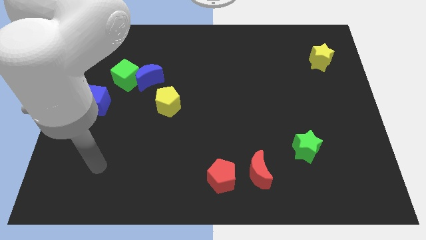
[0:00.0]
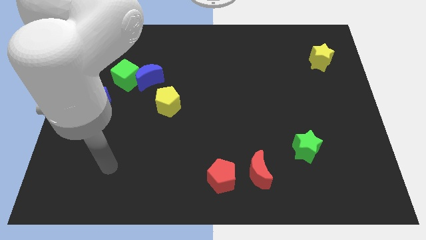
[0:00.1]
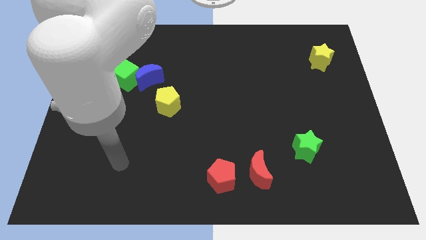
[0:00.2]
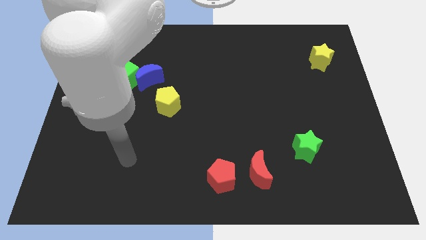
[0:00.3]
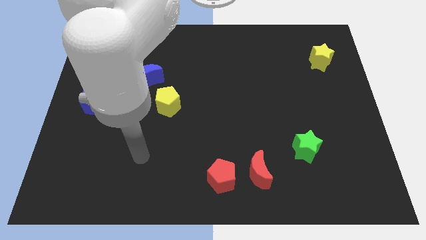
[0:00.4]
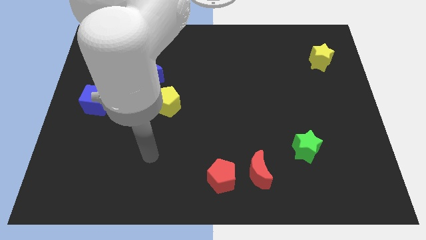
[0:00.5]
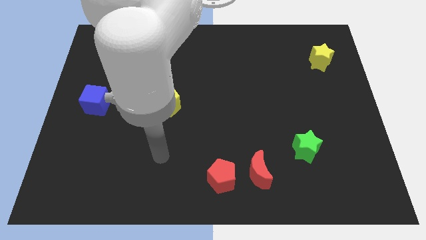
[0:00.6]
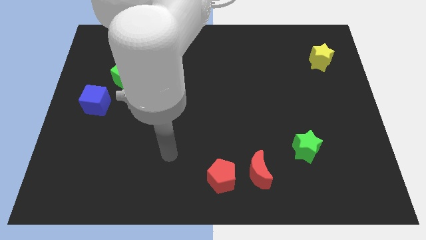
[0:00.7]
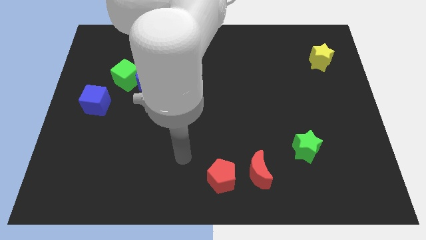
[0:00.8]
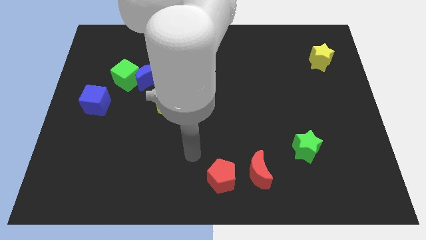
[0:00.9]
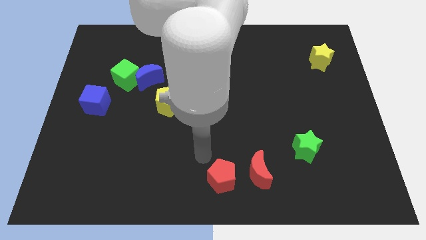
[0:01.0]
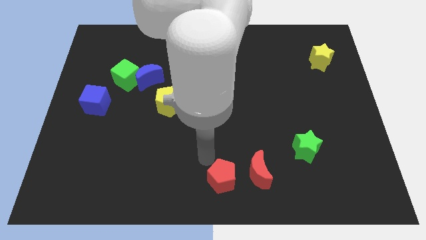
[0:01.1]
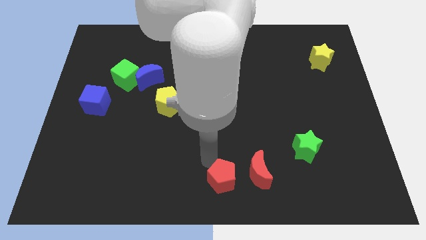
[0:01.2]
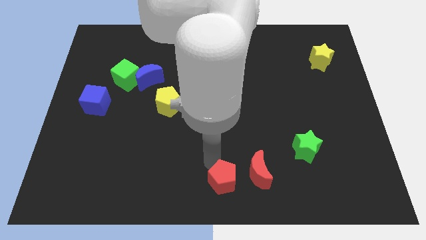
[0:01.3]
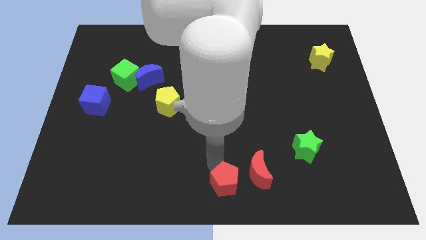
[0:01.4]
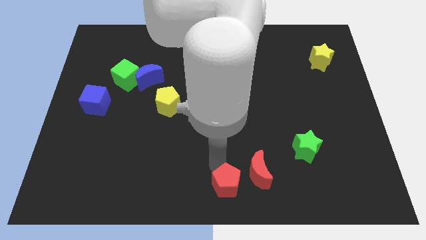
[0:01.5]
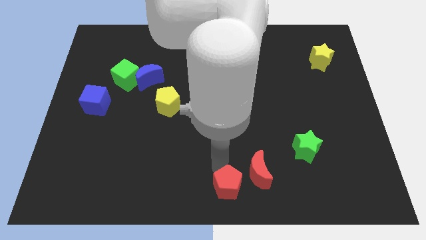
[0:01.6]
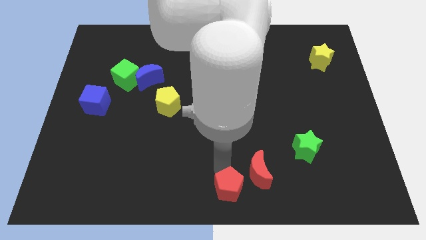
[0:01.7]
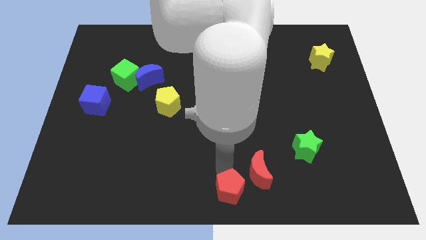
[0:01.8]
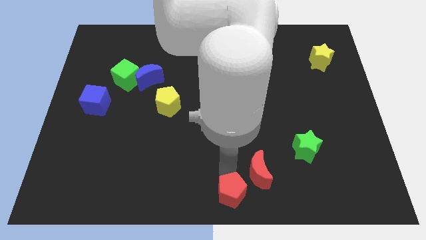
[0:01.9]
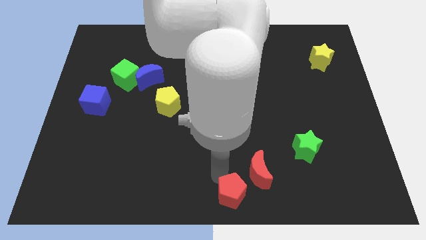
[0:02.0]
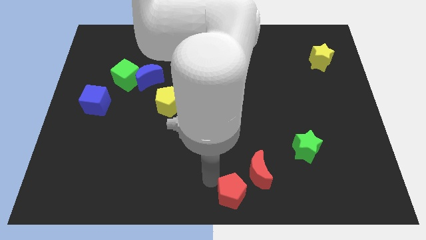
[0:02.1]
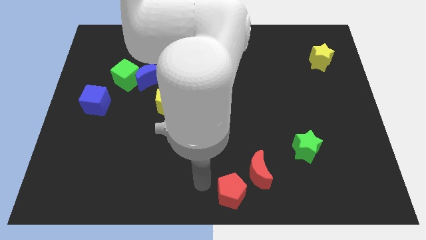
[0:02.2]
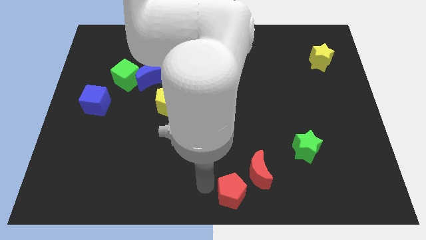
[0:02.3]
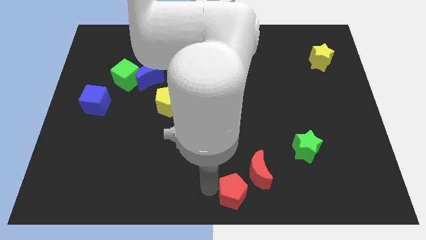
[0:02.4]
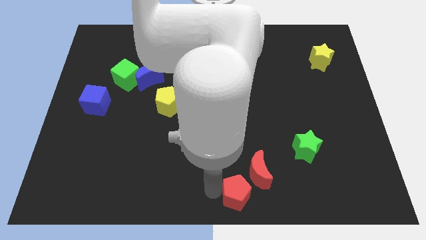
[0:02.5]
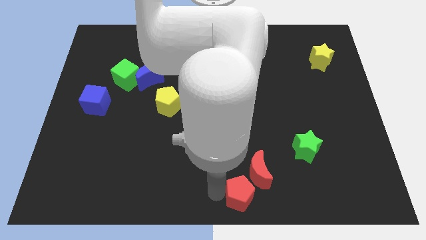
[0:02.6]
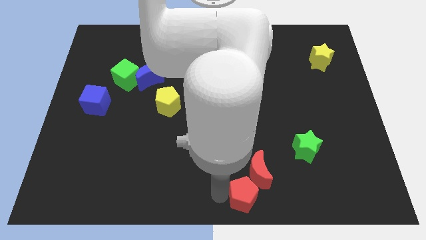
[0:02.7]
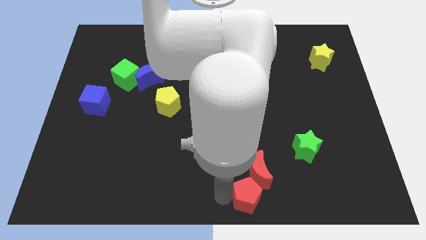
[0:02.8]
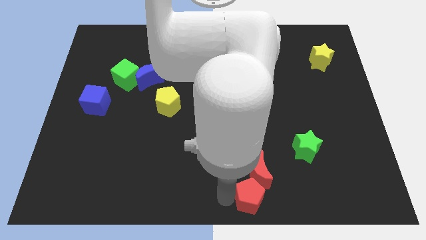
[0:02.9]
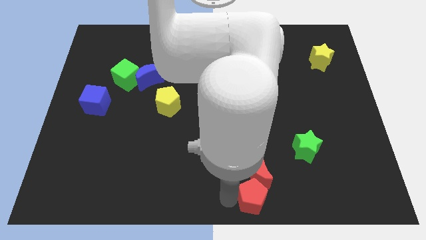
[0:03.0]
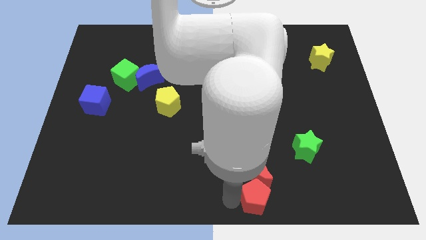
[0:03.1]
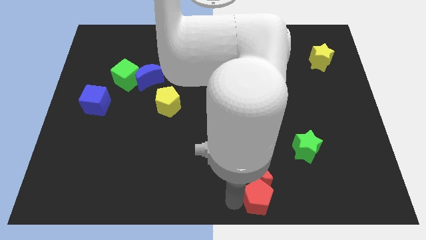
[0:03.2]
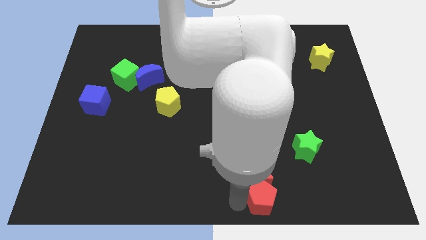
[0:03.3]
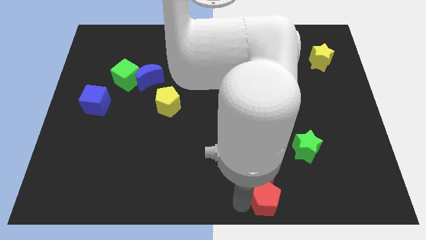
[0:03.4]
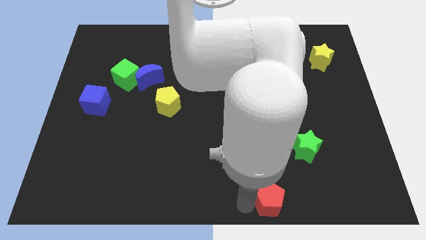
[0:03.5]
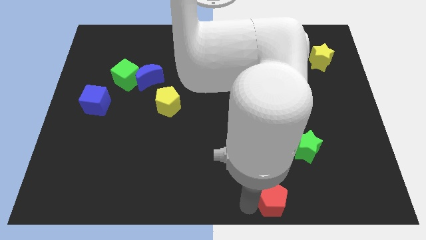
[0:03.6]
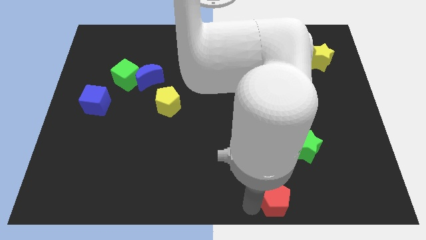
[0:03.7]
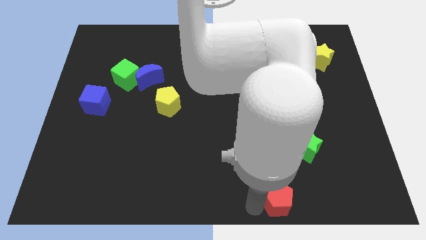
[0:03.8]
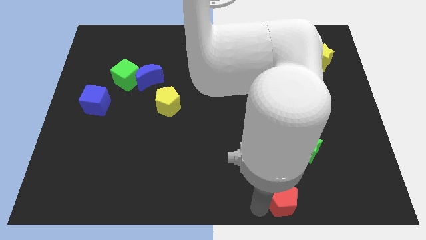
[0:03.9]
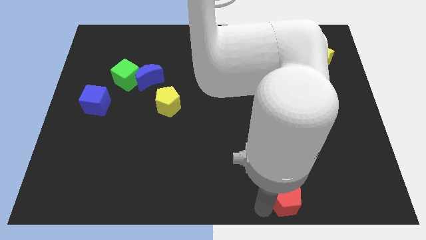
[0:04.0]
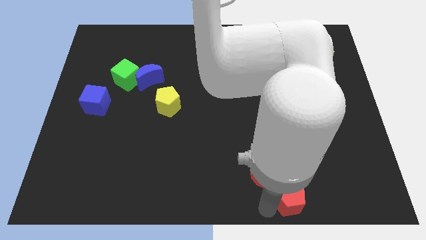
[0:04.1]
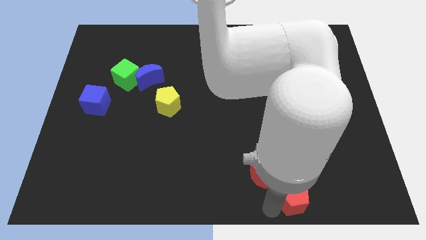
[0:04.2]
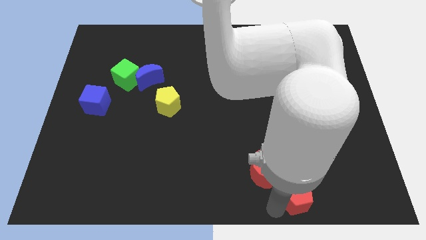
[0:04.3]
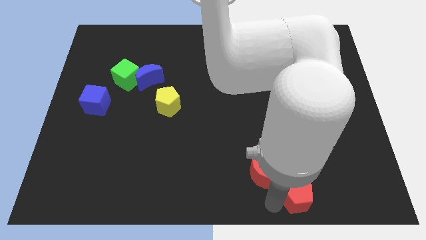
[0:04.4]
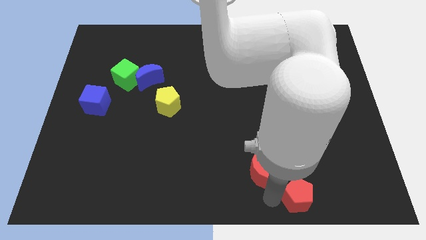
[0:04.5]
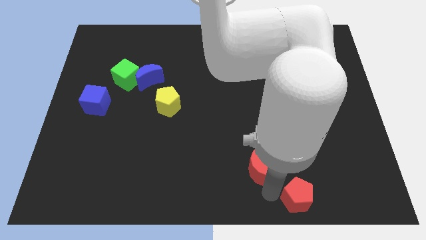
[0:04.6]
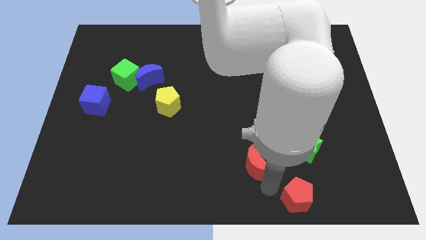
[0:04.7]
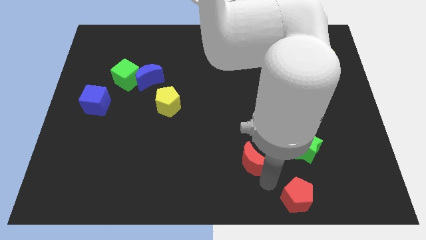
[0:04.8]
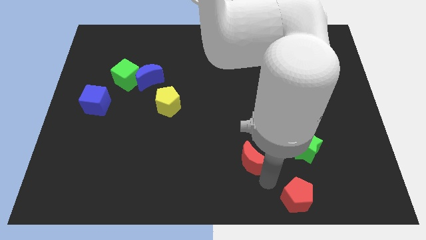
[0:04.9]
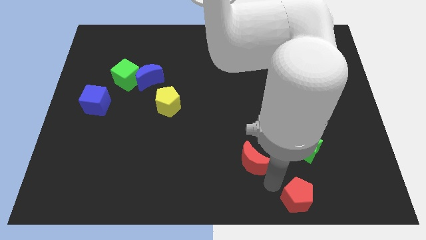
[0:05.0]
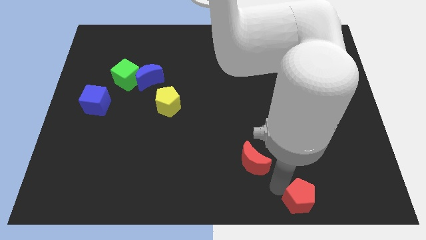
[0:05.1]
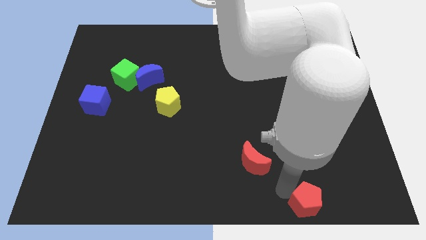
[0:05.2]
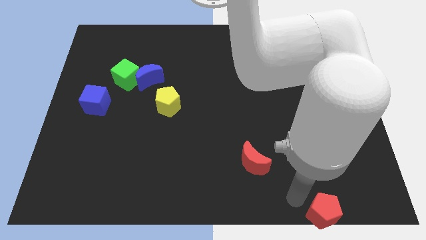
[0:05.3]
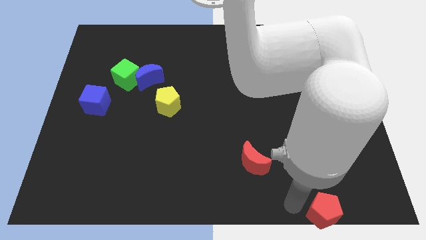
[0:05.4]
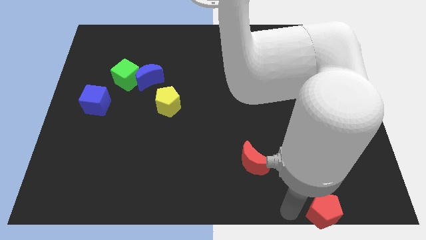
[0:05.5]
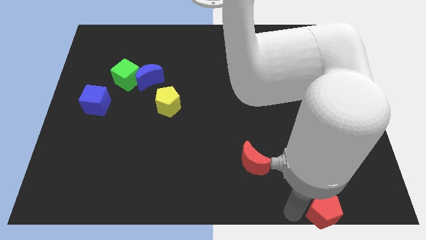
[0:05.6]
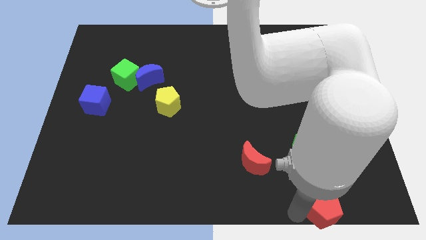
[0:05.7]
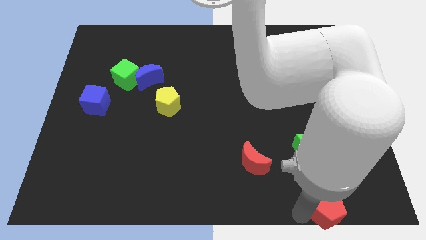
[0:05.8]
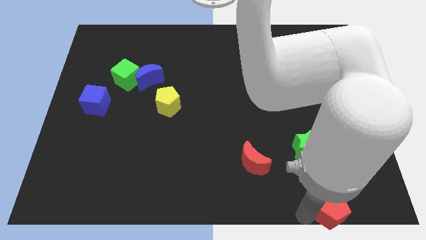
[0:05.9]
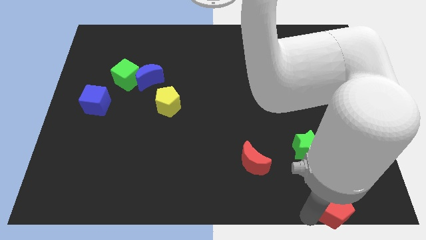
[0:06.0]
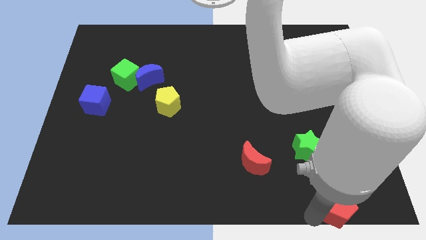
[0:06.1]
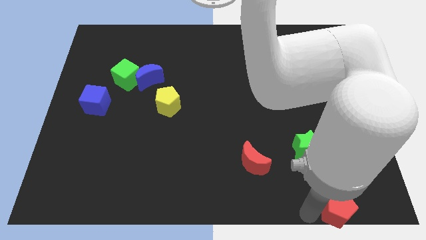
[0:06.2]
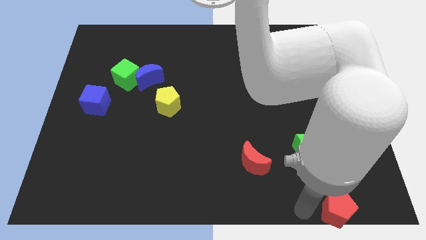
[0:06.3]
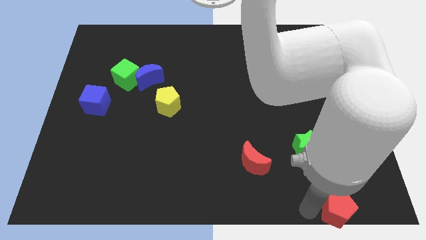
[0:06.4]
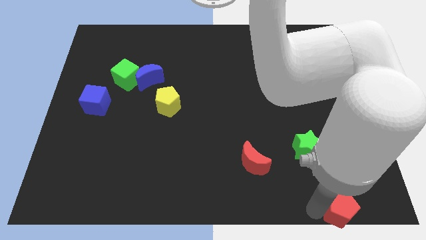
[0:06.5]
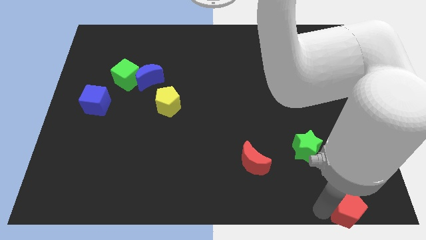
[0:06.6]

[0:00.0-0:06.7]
slide the red pentagon to the bottom right corner
